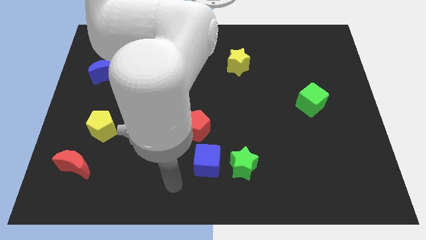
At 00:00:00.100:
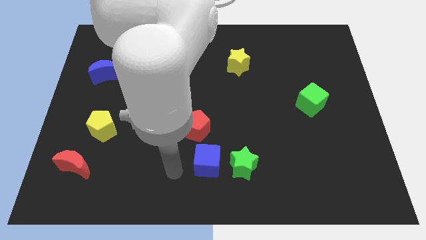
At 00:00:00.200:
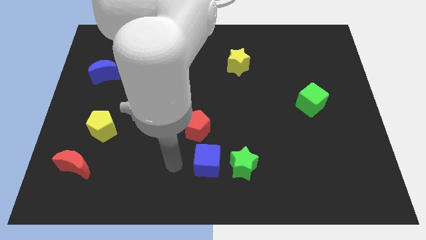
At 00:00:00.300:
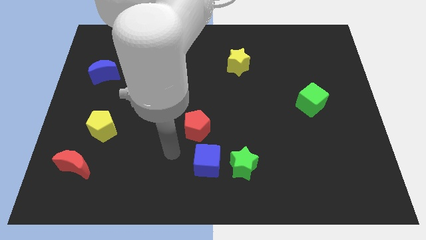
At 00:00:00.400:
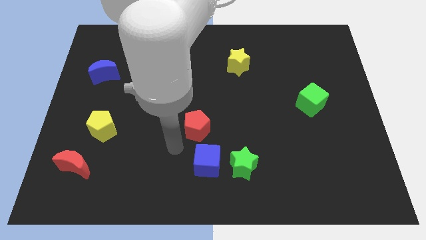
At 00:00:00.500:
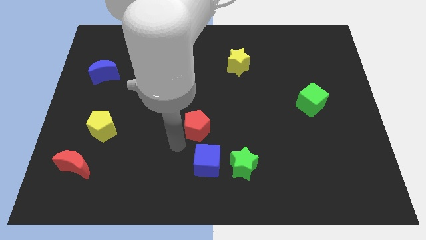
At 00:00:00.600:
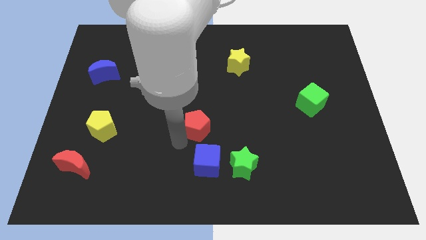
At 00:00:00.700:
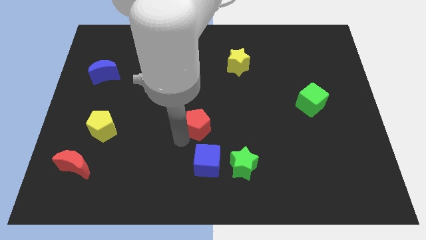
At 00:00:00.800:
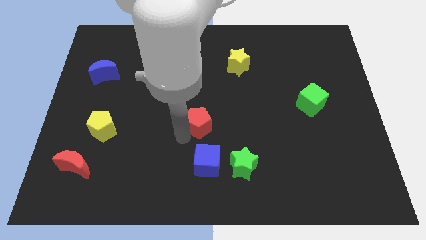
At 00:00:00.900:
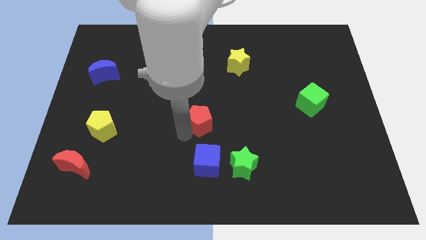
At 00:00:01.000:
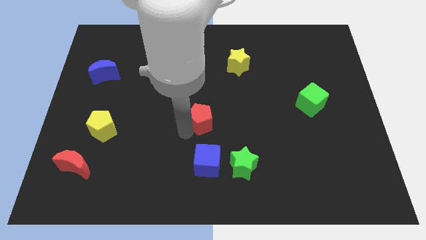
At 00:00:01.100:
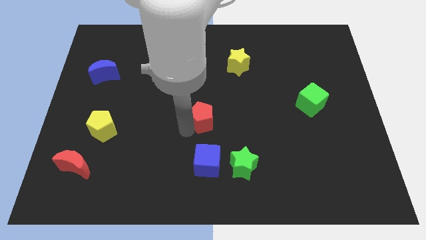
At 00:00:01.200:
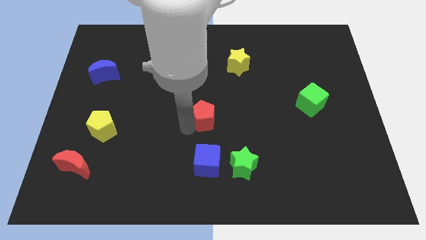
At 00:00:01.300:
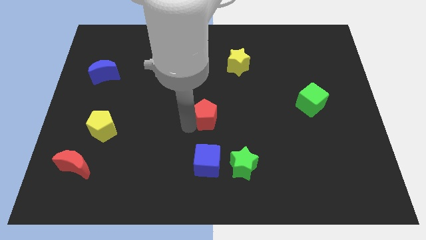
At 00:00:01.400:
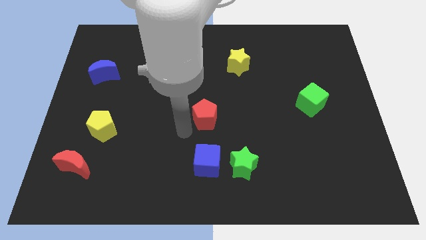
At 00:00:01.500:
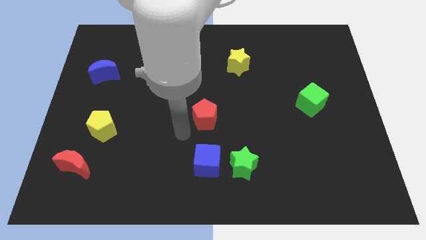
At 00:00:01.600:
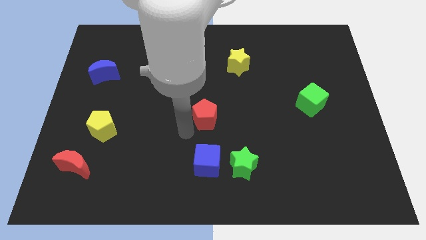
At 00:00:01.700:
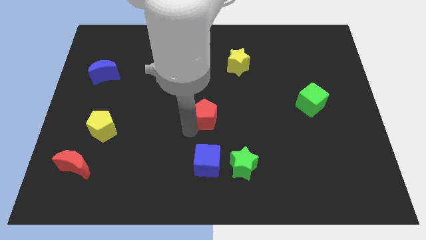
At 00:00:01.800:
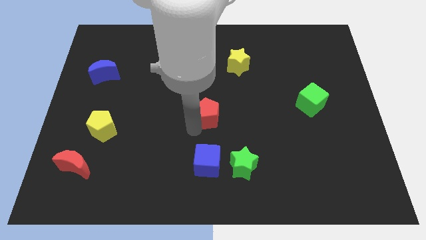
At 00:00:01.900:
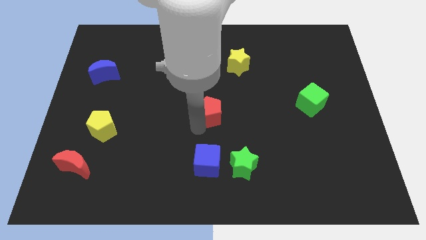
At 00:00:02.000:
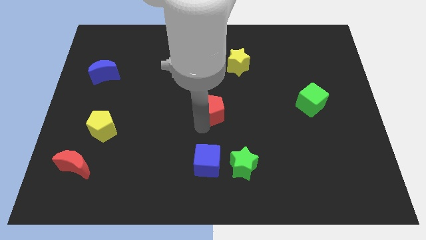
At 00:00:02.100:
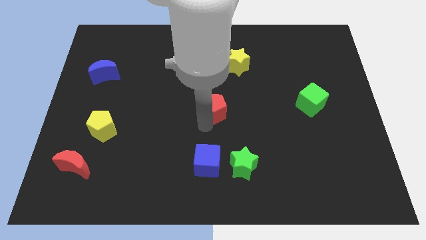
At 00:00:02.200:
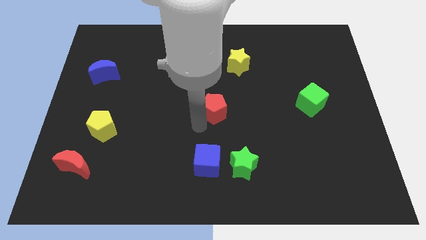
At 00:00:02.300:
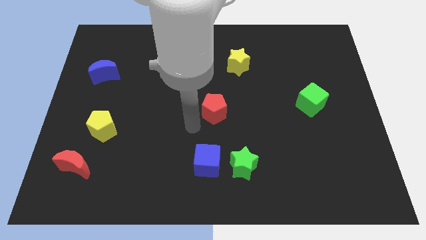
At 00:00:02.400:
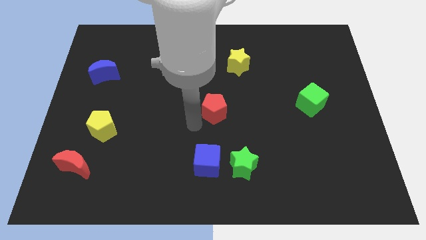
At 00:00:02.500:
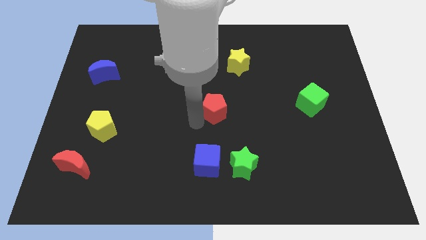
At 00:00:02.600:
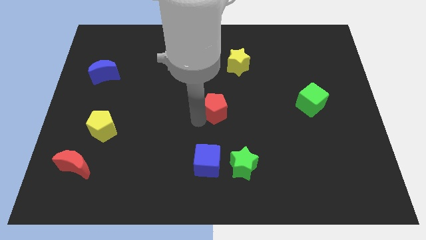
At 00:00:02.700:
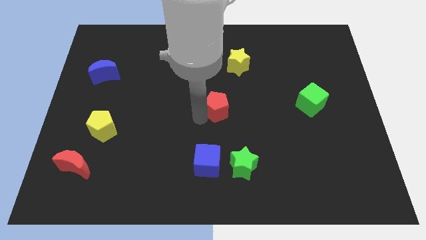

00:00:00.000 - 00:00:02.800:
push the red pentagon upwards and right a little bit

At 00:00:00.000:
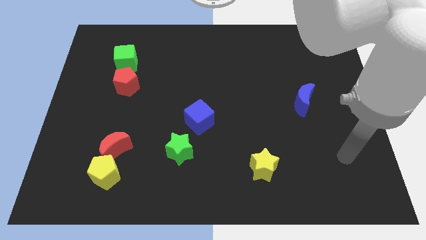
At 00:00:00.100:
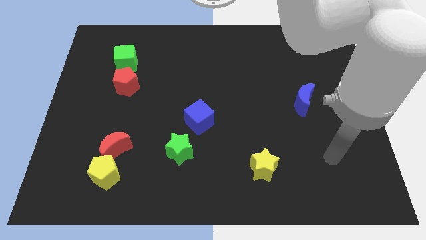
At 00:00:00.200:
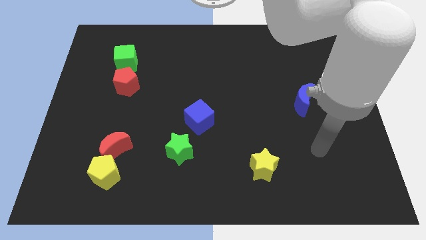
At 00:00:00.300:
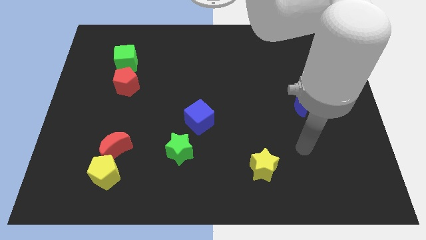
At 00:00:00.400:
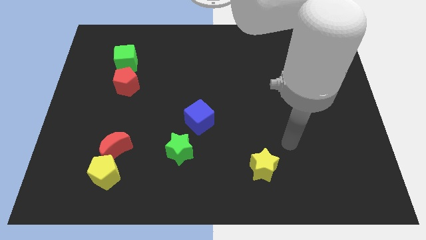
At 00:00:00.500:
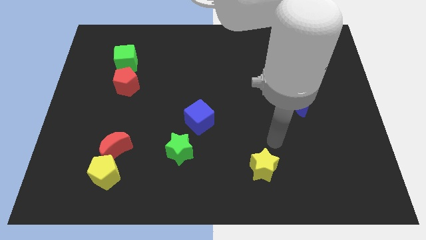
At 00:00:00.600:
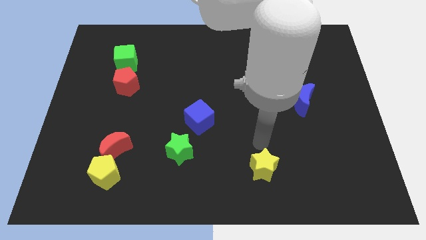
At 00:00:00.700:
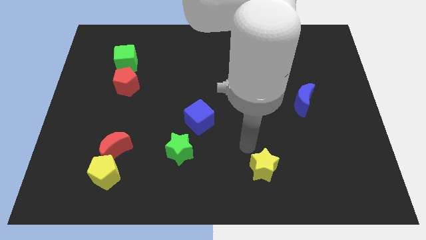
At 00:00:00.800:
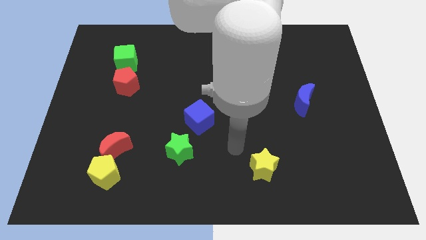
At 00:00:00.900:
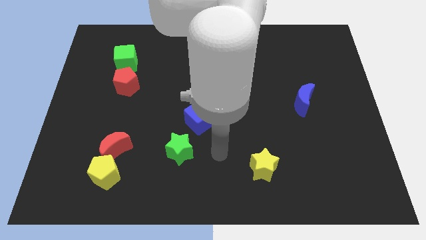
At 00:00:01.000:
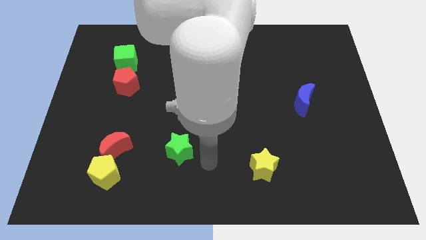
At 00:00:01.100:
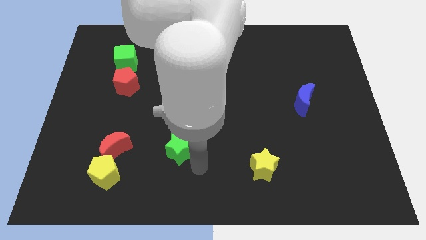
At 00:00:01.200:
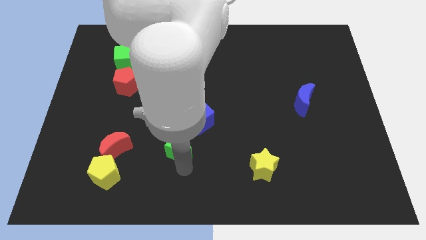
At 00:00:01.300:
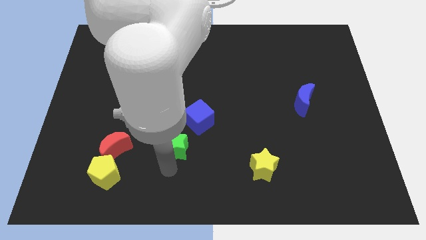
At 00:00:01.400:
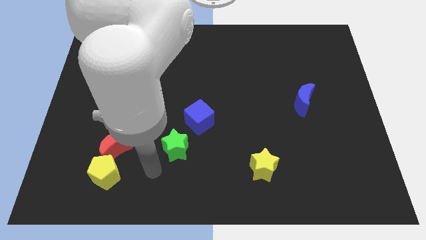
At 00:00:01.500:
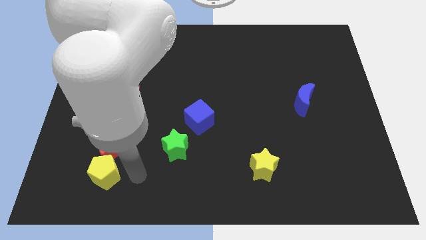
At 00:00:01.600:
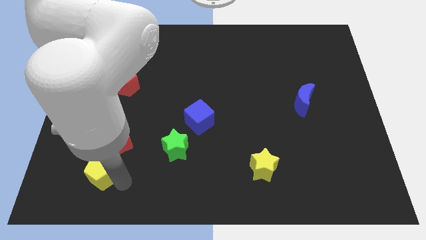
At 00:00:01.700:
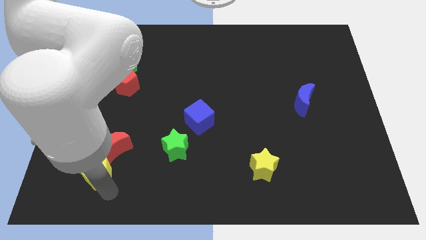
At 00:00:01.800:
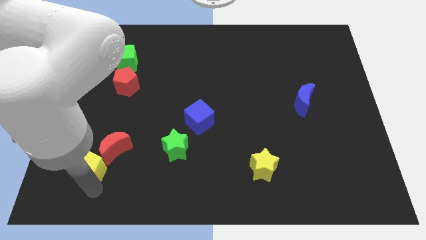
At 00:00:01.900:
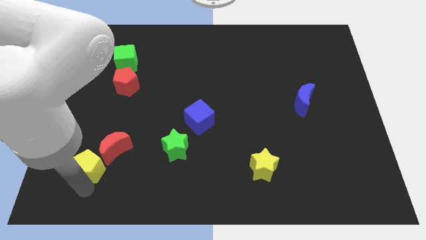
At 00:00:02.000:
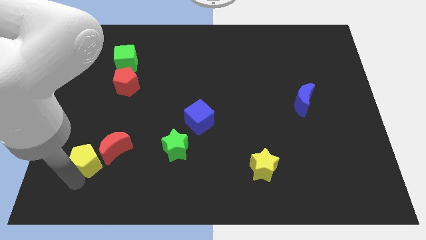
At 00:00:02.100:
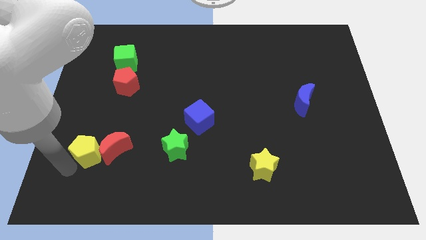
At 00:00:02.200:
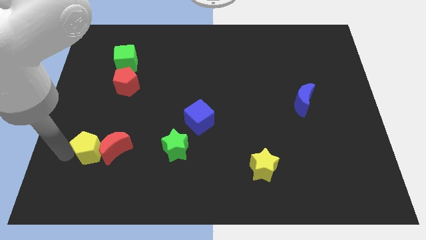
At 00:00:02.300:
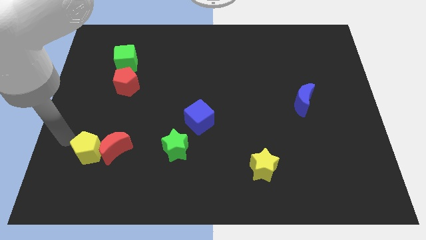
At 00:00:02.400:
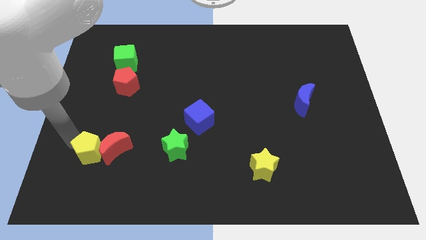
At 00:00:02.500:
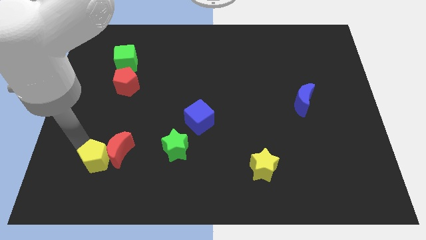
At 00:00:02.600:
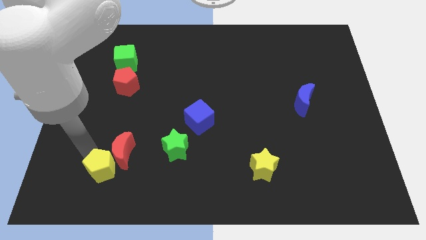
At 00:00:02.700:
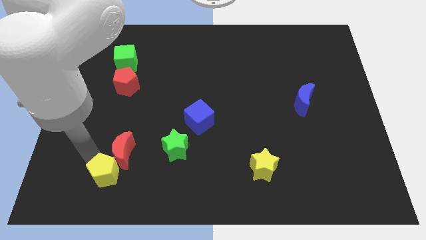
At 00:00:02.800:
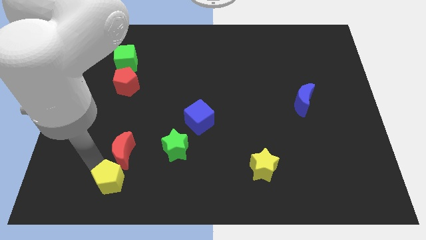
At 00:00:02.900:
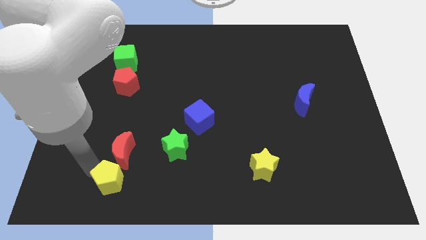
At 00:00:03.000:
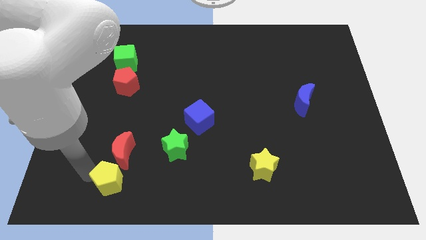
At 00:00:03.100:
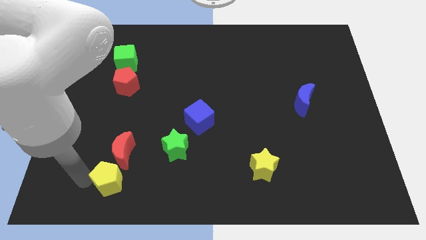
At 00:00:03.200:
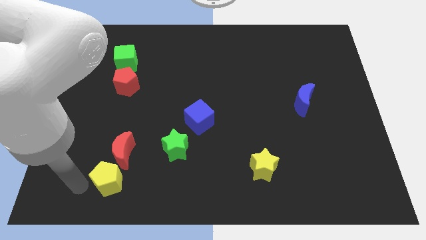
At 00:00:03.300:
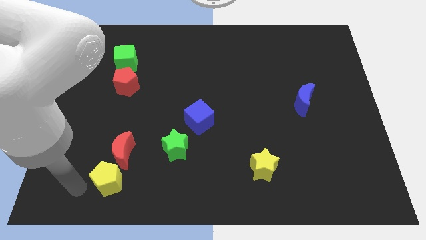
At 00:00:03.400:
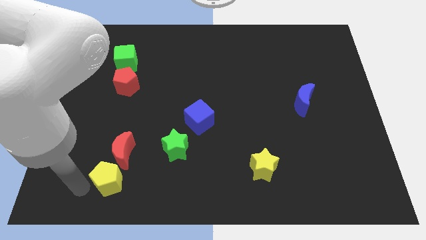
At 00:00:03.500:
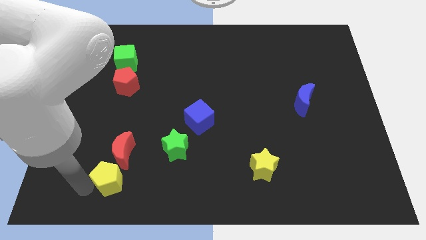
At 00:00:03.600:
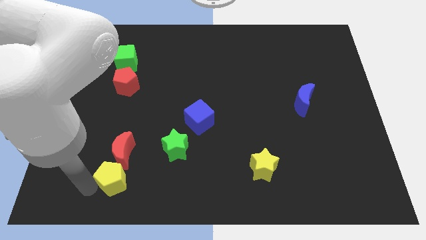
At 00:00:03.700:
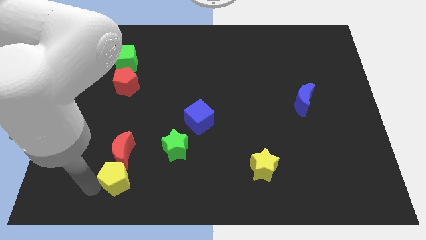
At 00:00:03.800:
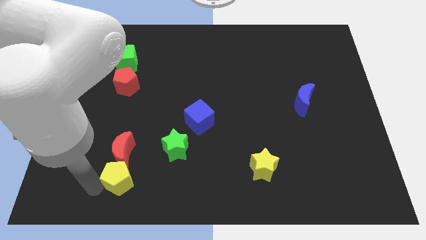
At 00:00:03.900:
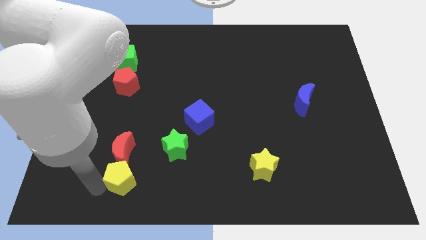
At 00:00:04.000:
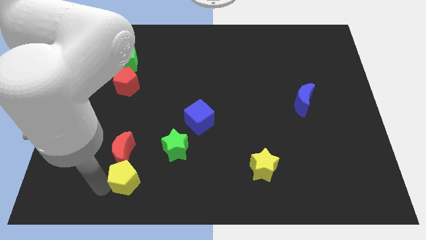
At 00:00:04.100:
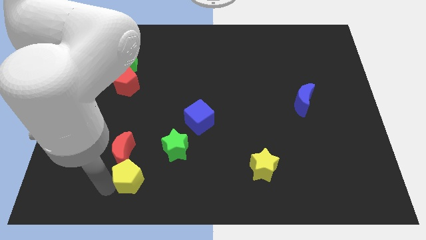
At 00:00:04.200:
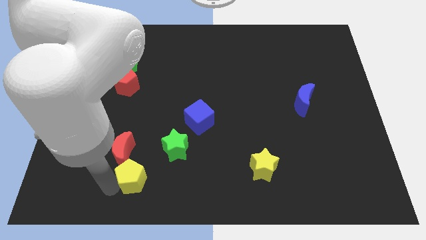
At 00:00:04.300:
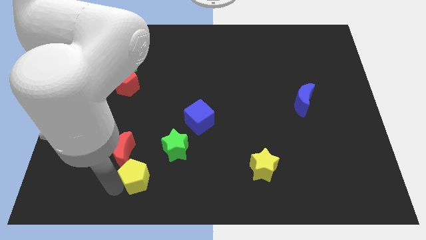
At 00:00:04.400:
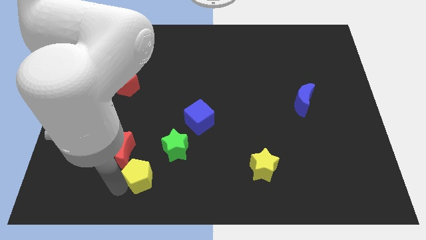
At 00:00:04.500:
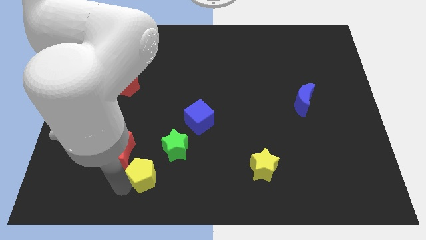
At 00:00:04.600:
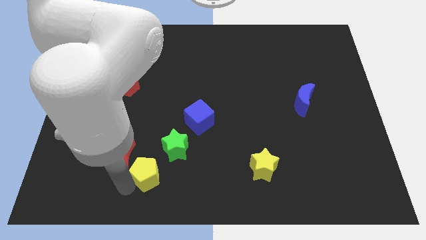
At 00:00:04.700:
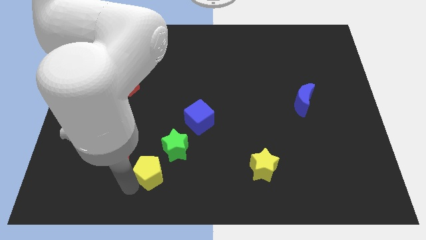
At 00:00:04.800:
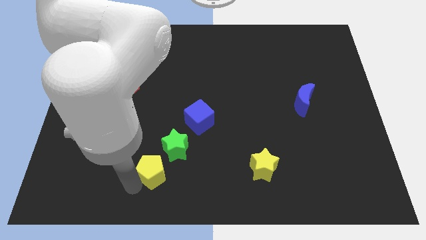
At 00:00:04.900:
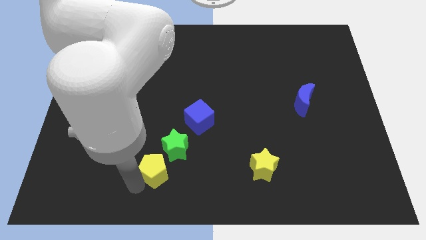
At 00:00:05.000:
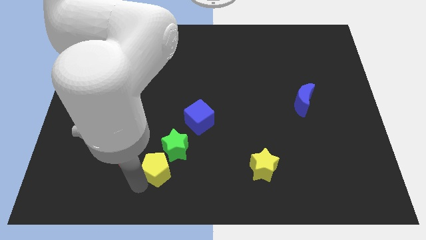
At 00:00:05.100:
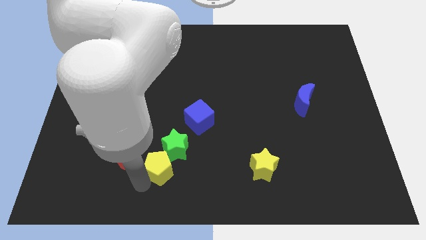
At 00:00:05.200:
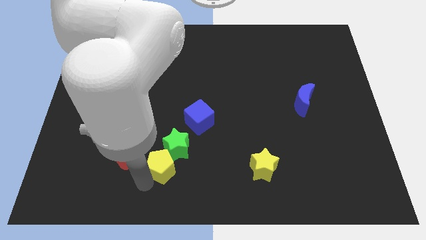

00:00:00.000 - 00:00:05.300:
slightly move the yellow pentagon up and then to the right
